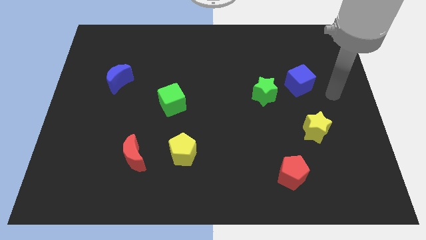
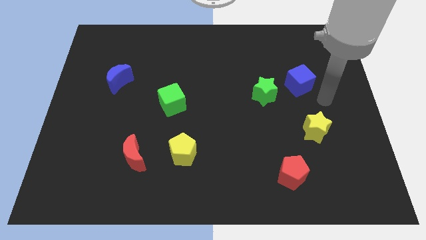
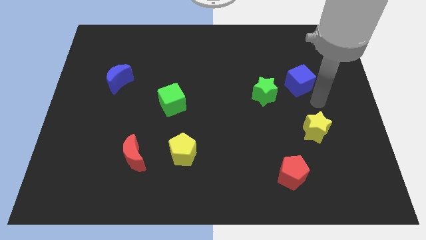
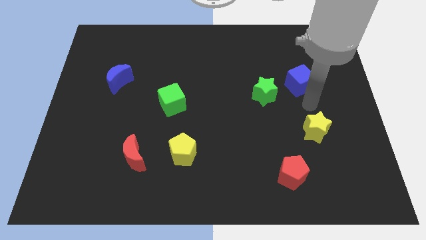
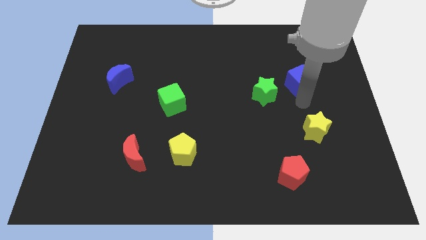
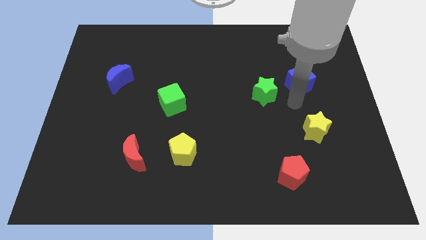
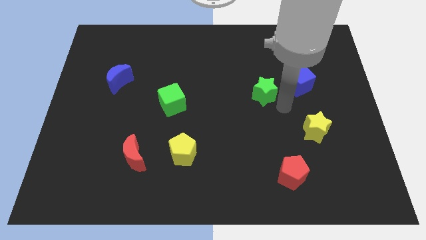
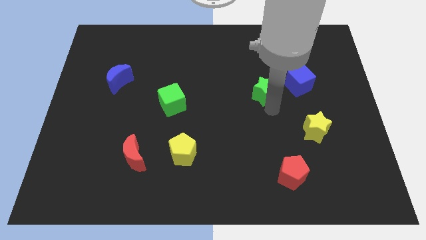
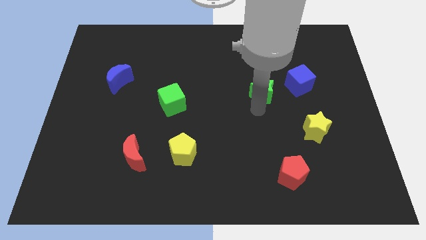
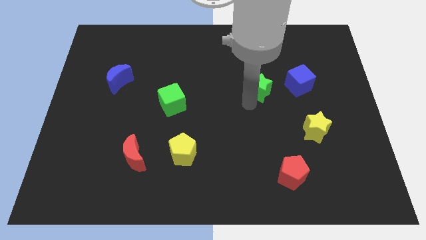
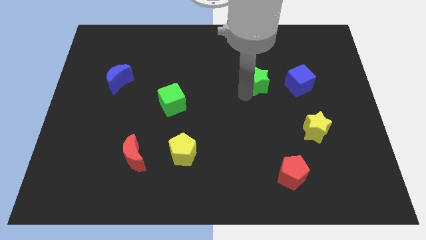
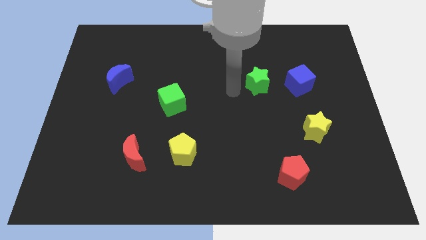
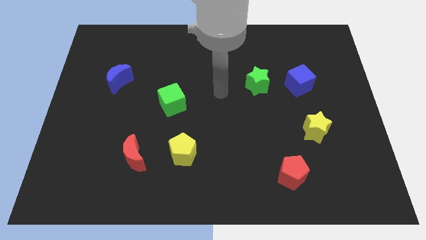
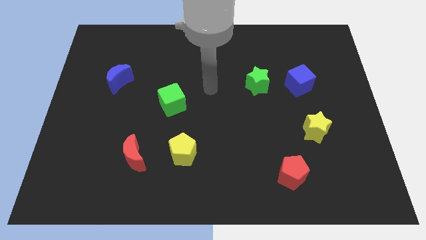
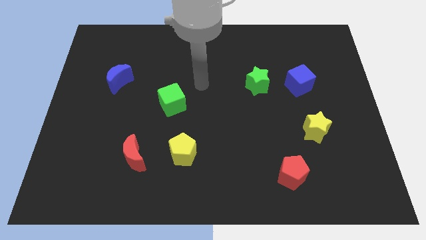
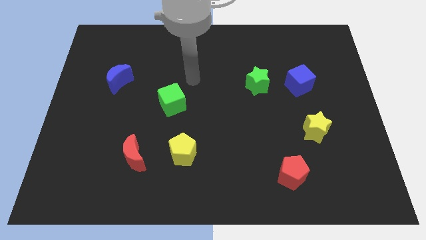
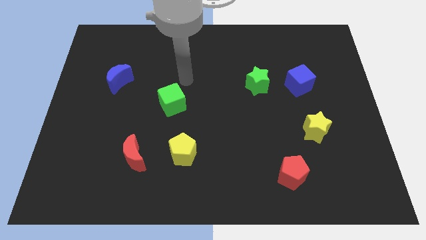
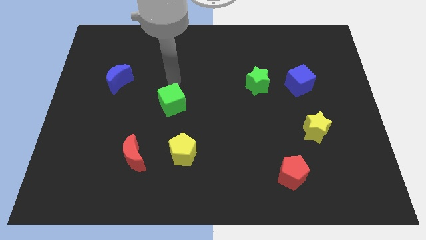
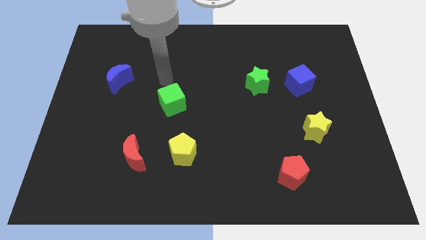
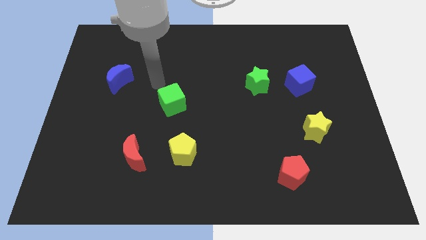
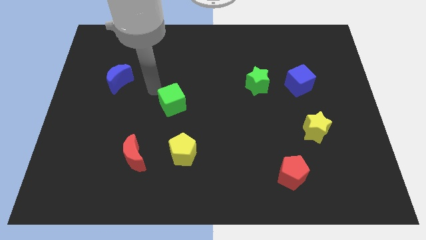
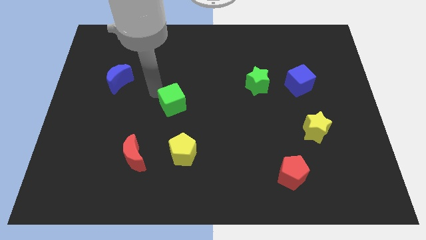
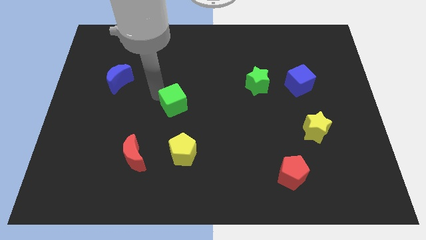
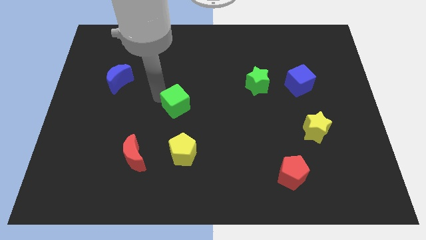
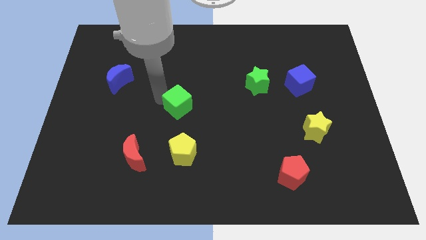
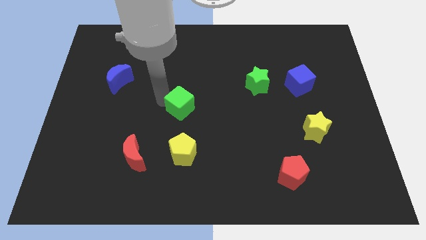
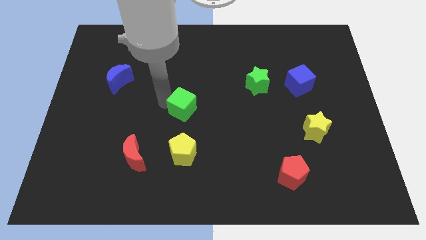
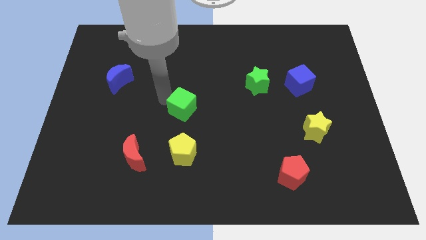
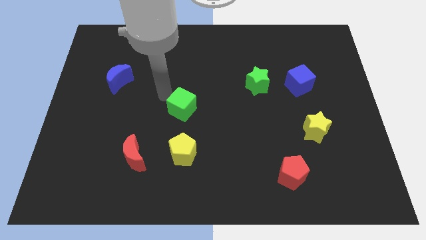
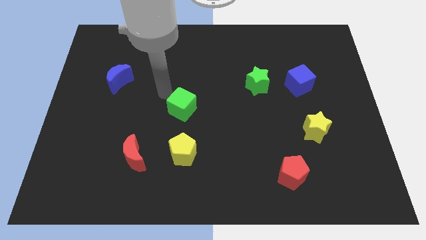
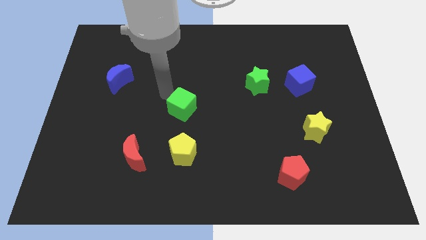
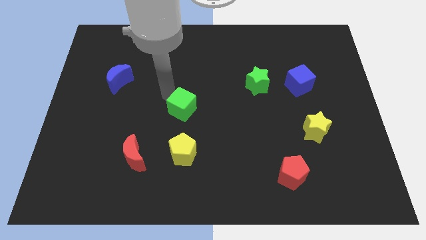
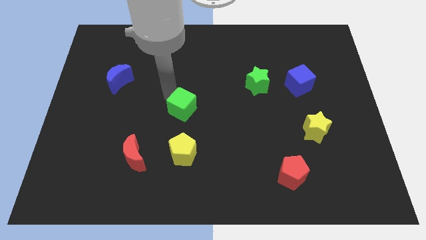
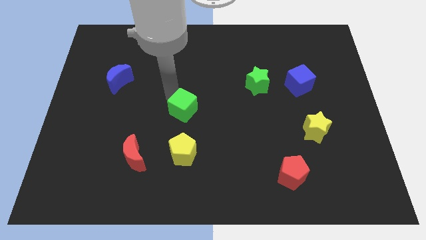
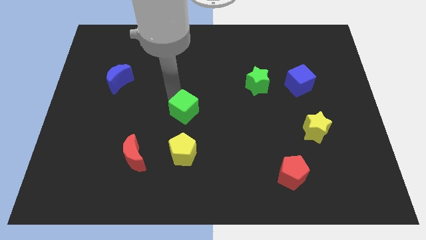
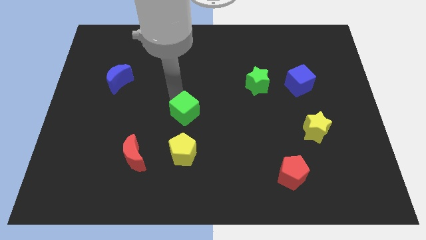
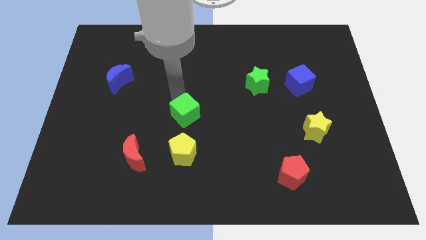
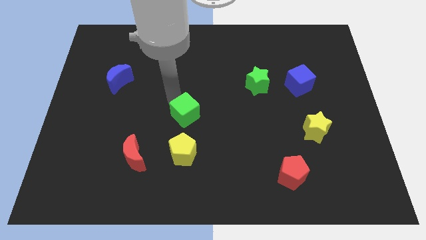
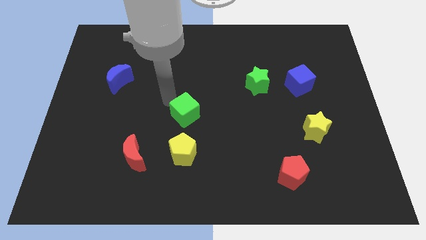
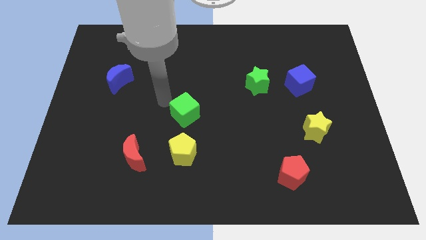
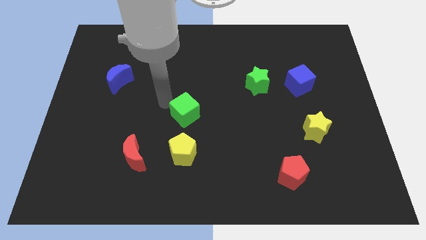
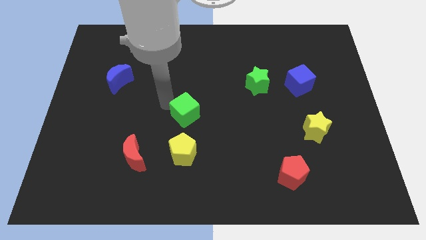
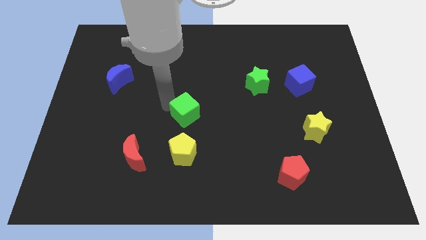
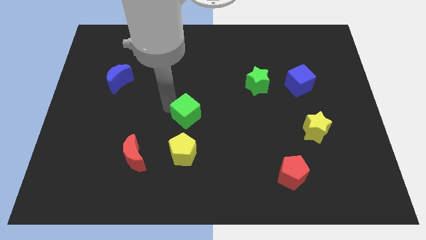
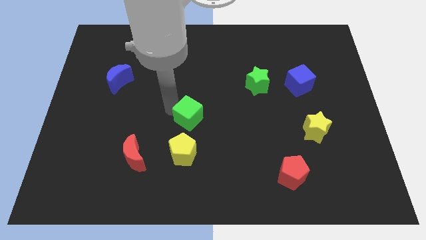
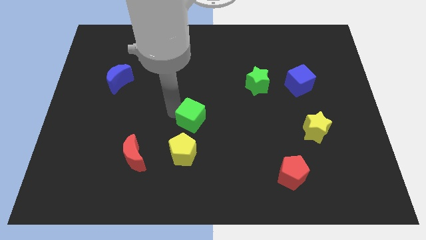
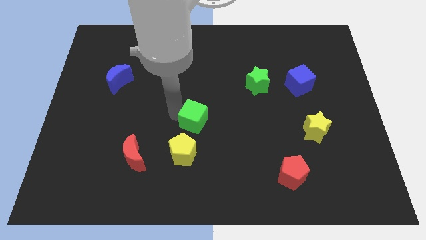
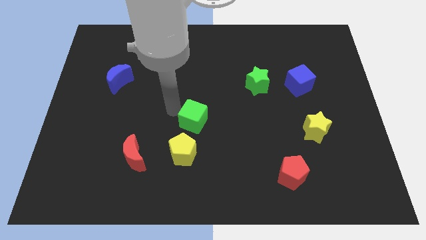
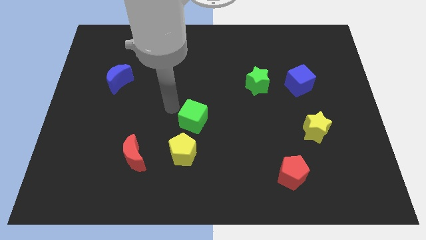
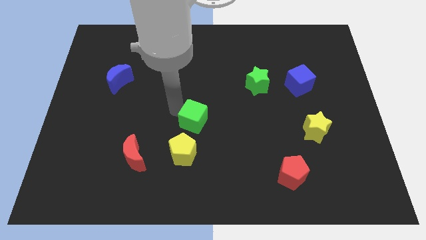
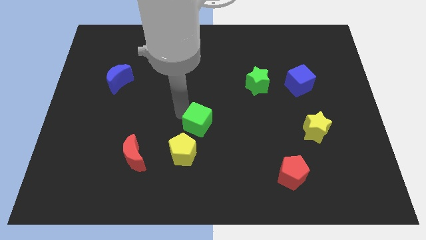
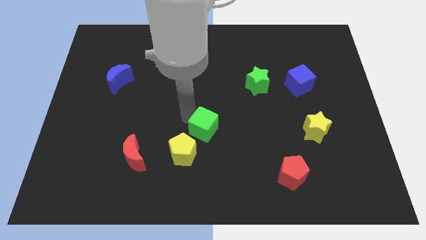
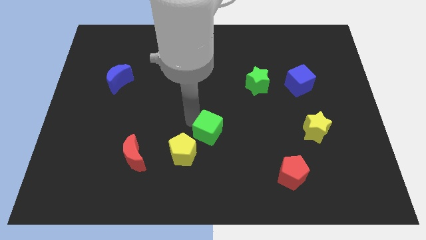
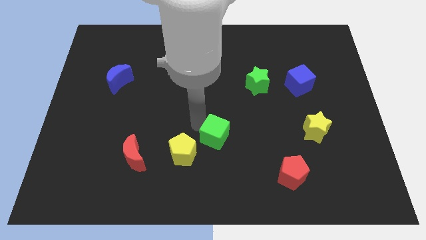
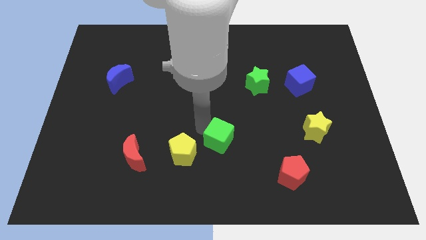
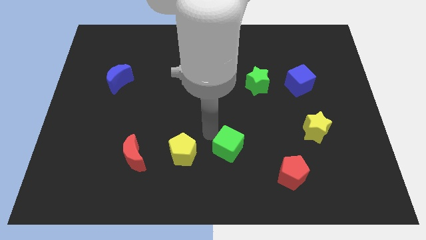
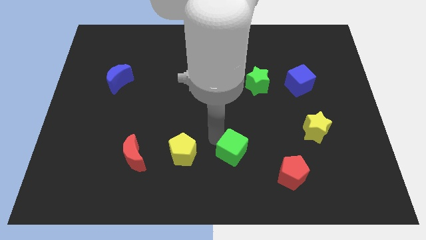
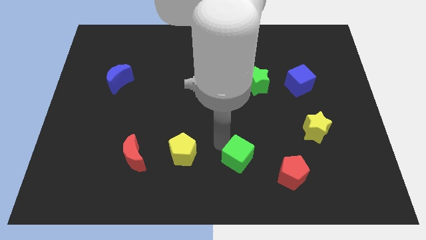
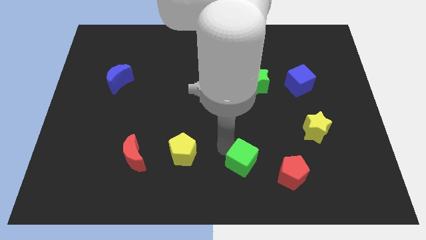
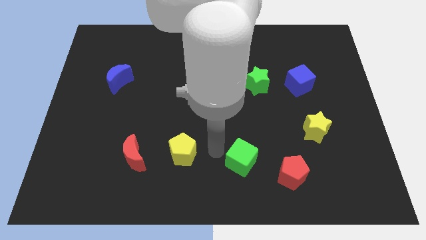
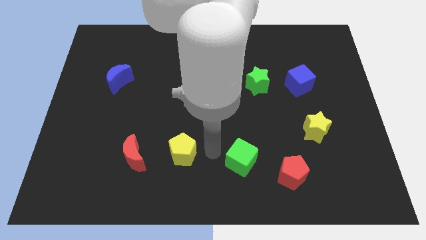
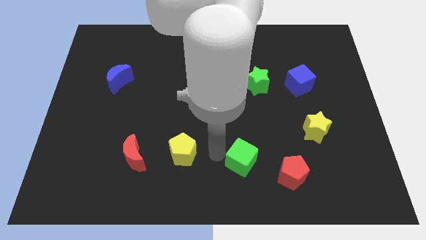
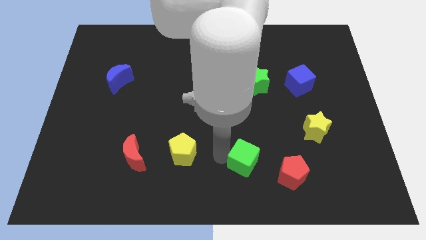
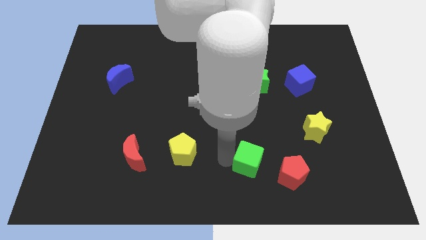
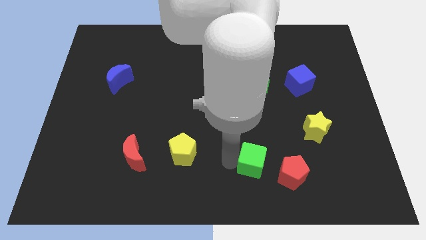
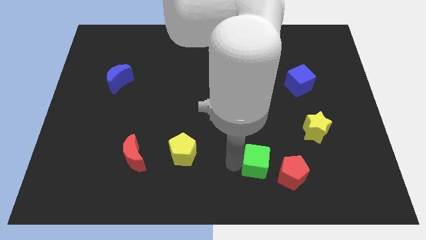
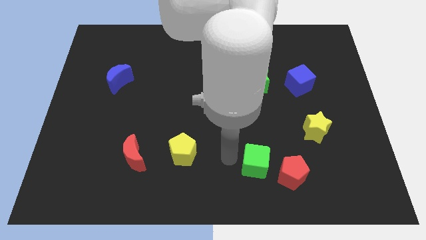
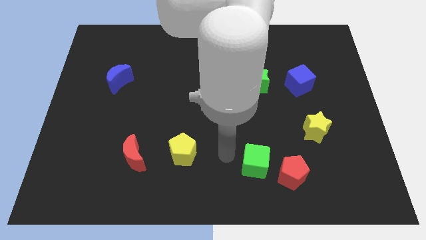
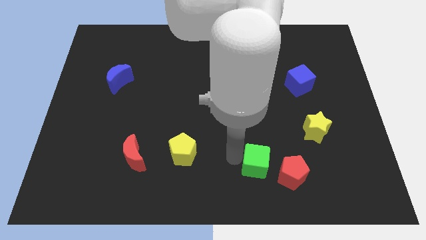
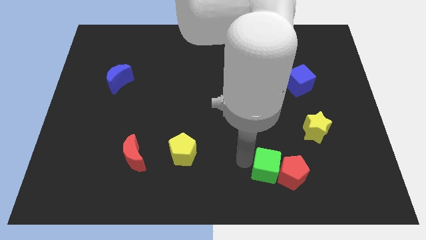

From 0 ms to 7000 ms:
push the green cube close to the red pentagon

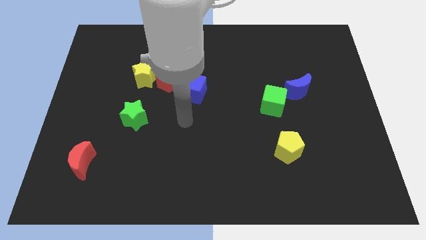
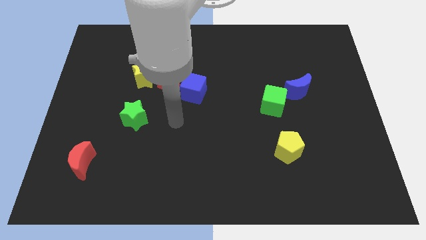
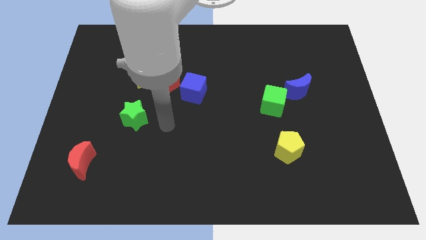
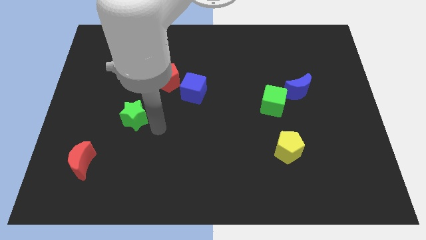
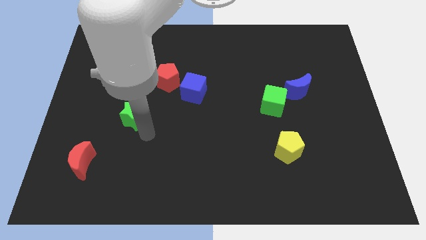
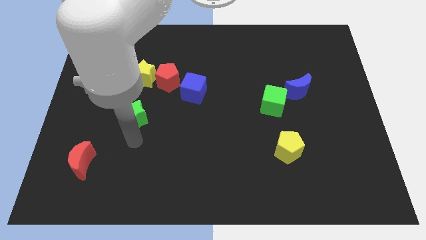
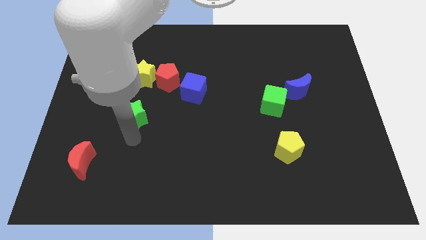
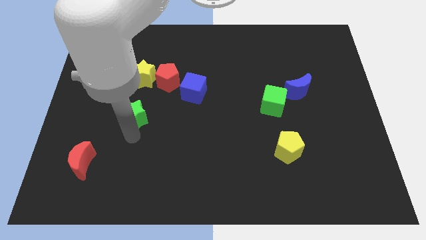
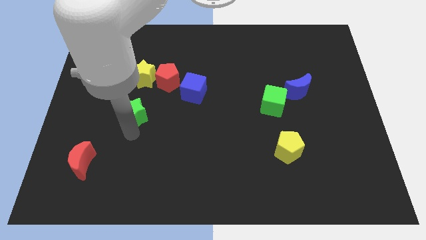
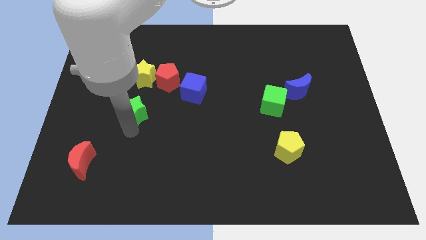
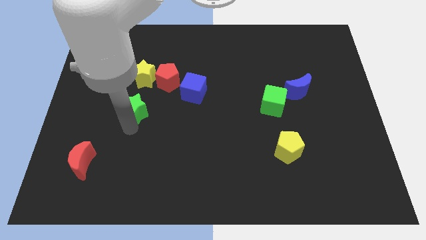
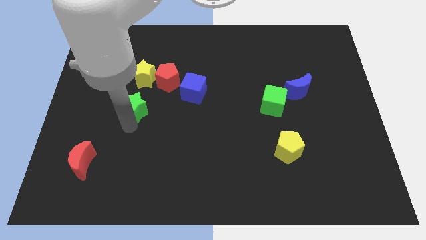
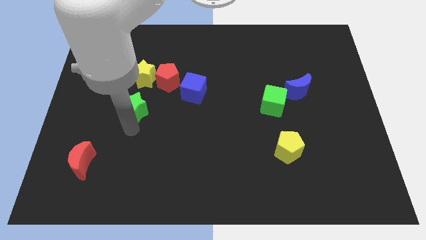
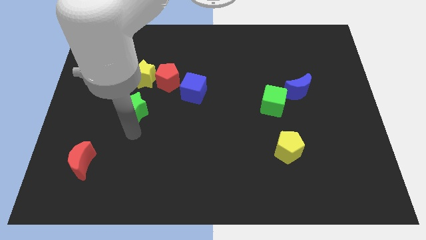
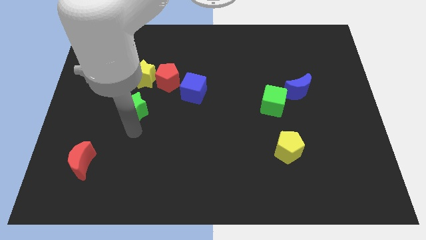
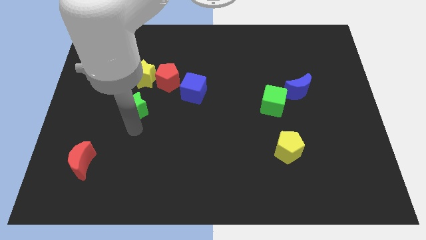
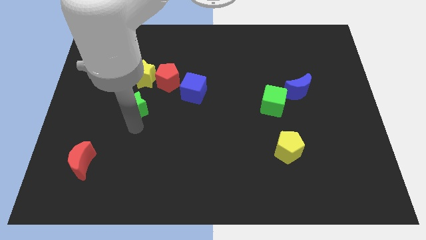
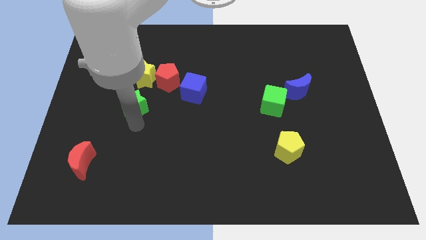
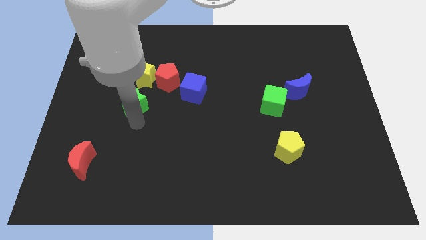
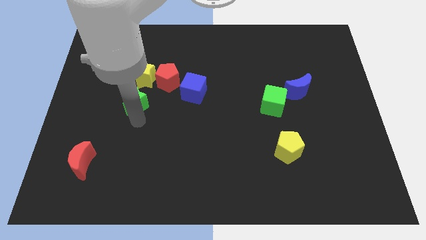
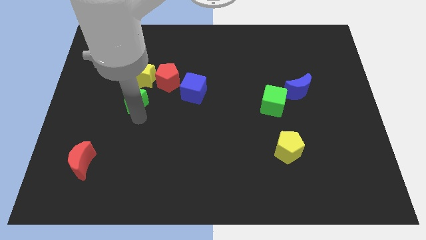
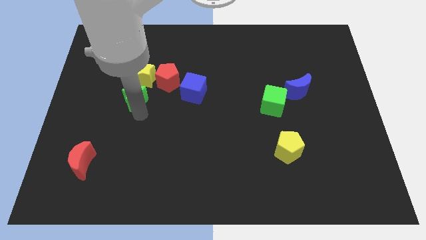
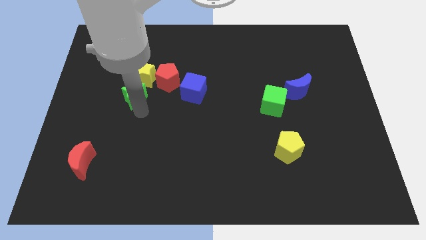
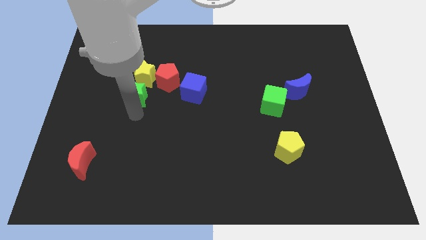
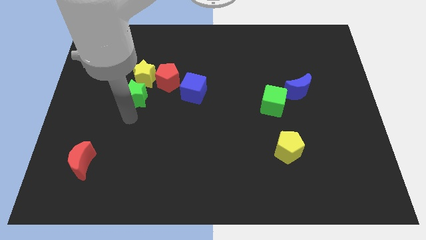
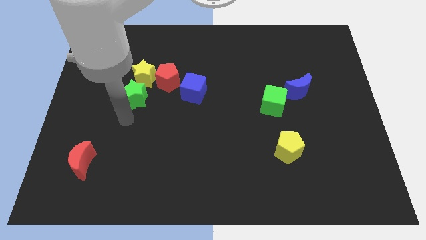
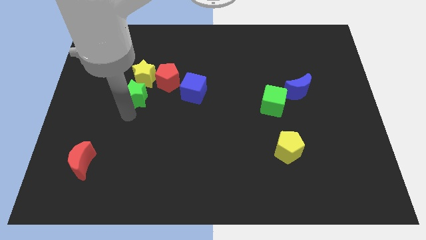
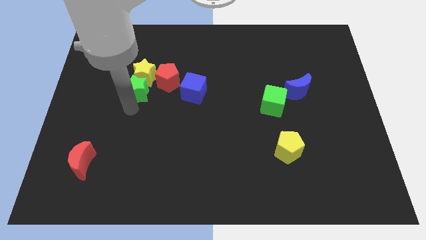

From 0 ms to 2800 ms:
put the green star towards the yellow star
